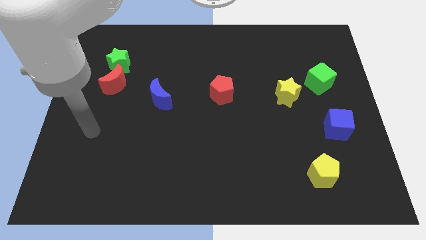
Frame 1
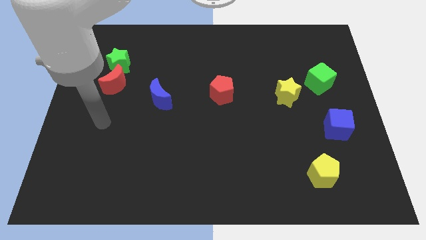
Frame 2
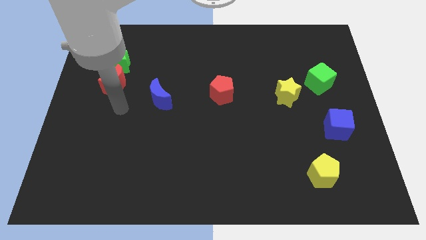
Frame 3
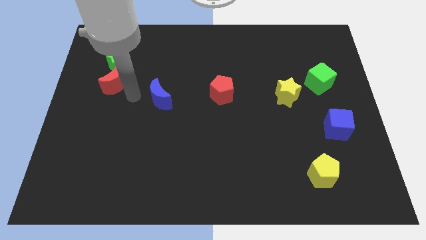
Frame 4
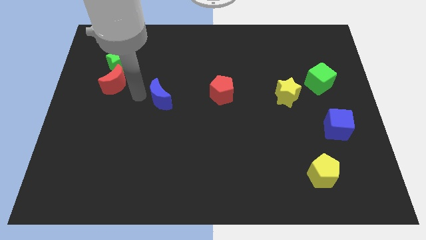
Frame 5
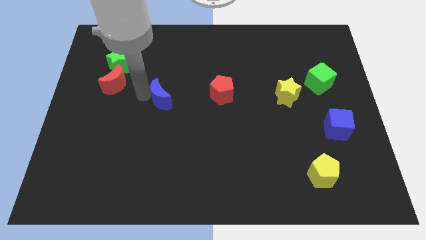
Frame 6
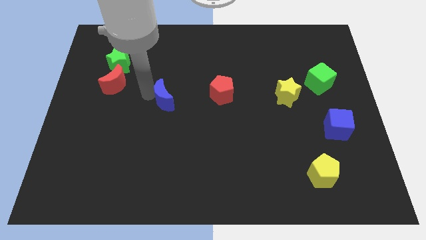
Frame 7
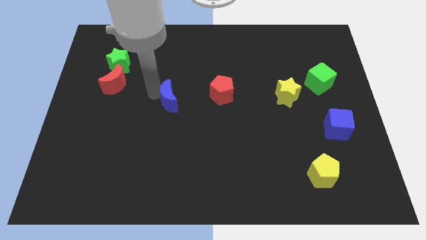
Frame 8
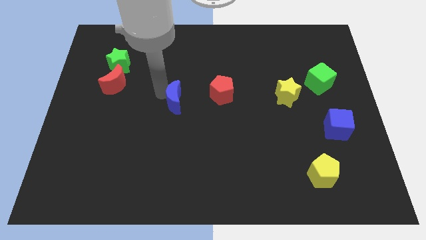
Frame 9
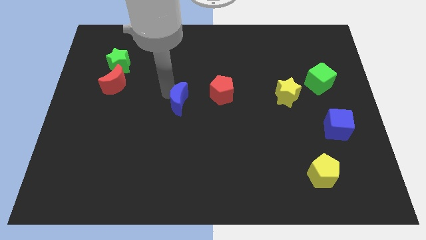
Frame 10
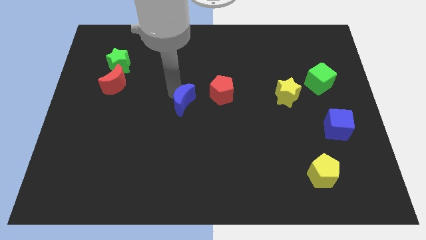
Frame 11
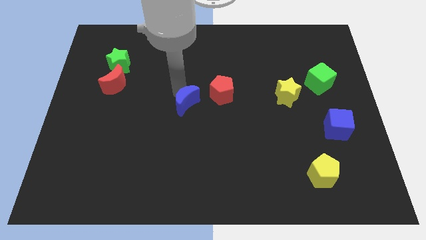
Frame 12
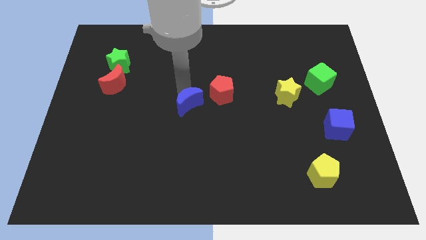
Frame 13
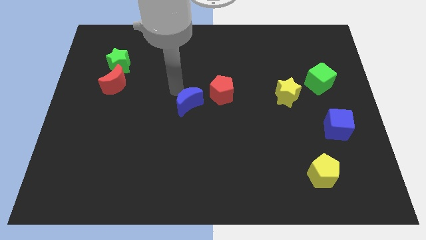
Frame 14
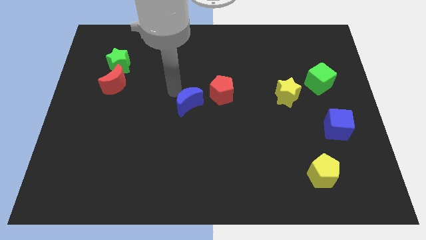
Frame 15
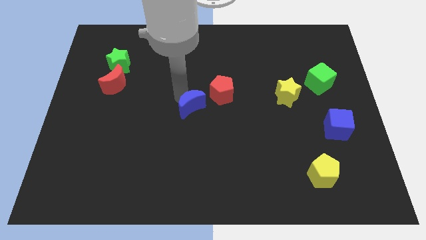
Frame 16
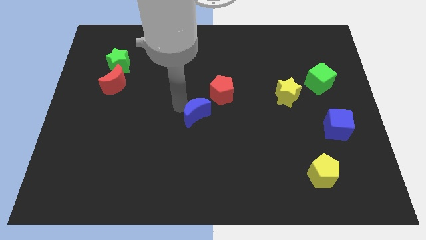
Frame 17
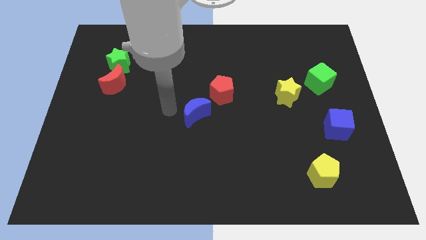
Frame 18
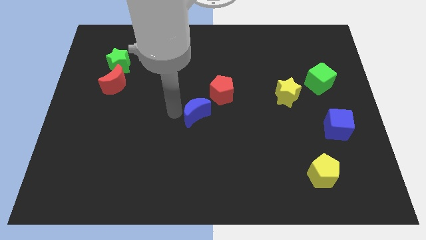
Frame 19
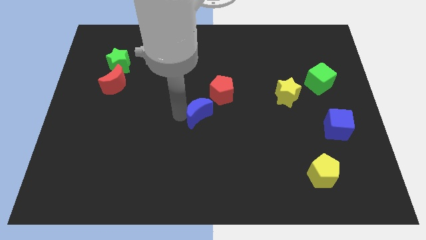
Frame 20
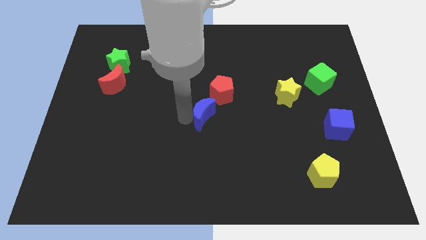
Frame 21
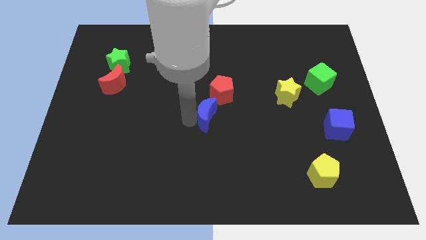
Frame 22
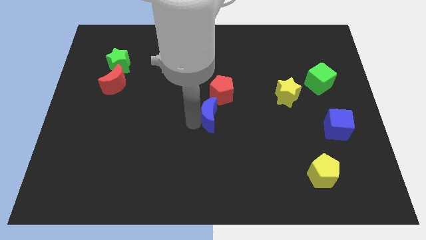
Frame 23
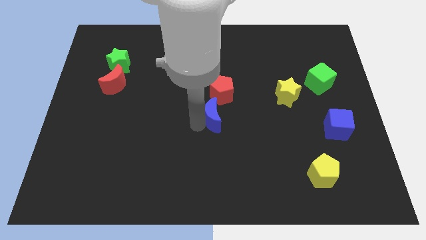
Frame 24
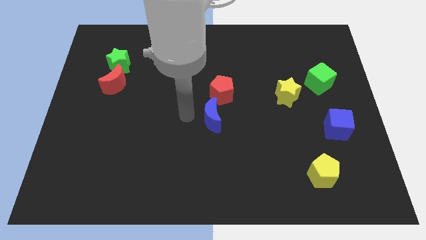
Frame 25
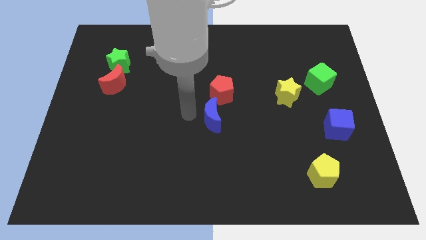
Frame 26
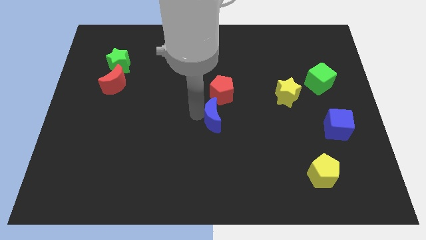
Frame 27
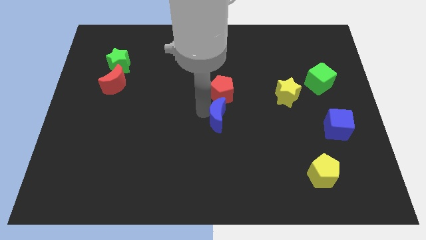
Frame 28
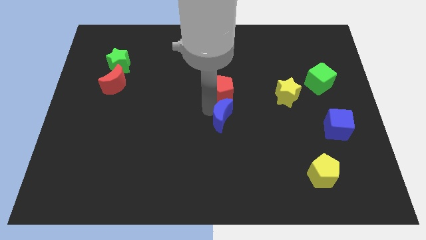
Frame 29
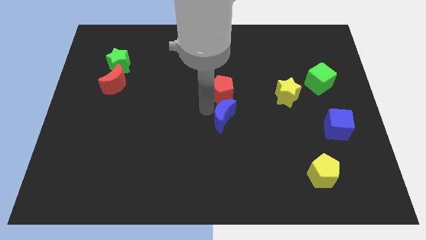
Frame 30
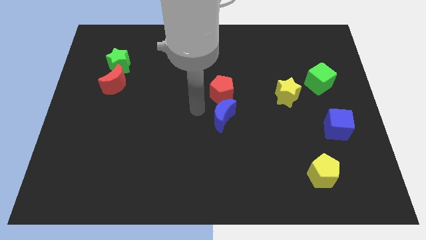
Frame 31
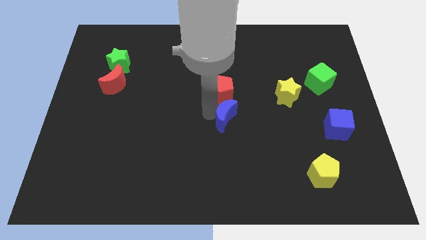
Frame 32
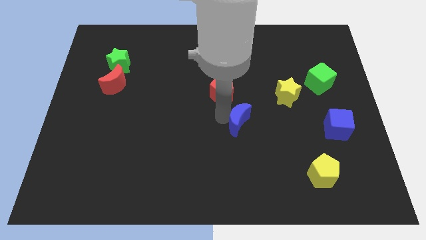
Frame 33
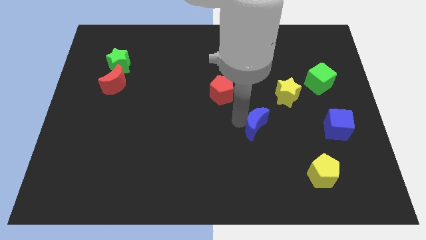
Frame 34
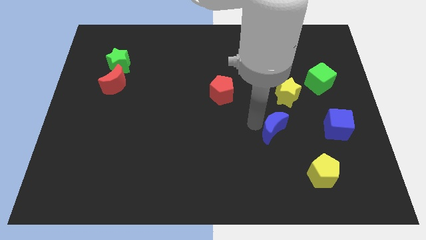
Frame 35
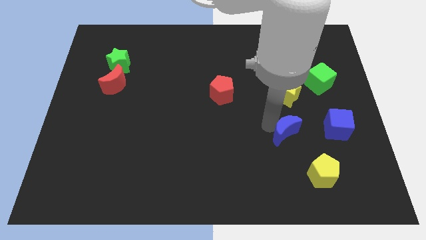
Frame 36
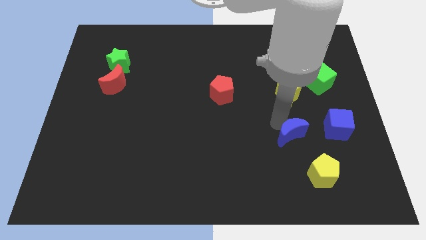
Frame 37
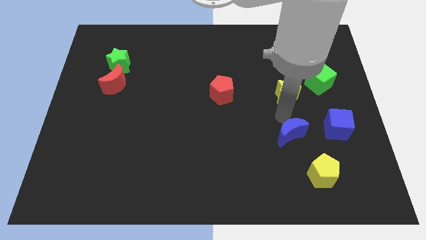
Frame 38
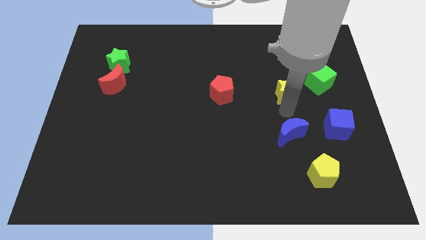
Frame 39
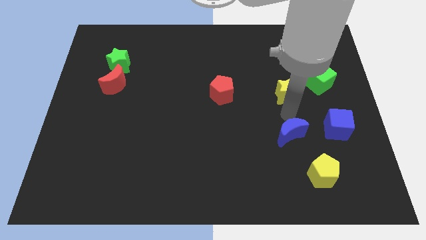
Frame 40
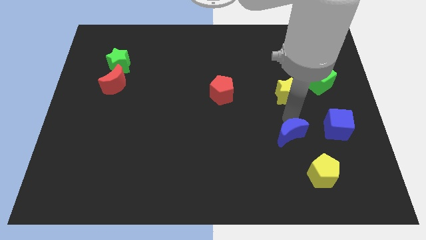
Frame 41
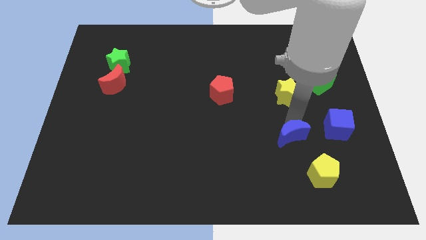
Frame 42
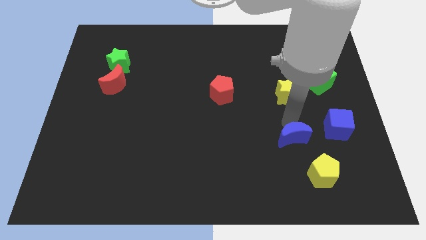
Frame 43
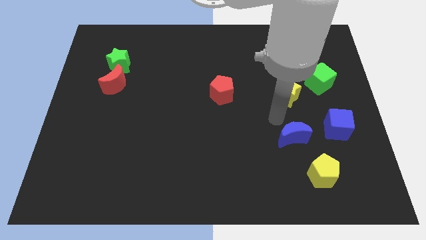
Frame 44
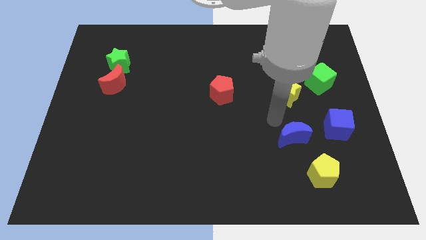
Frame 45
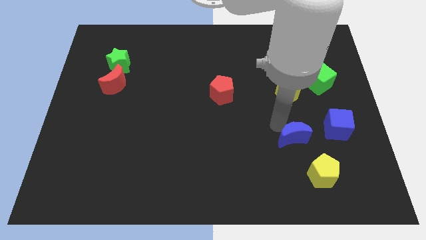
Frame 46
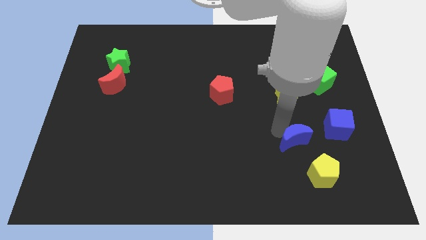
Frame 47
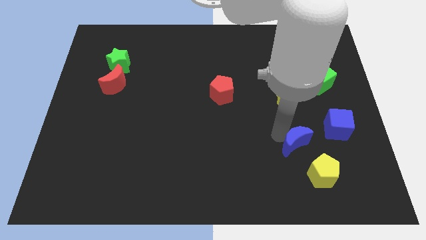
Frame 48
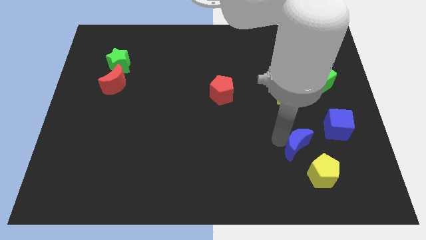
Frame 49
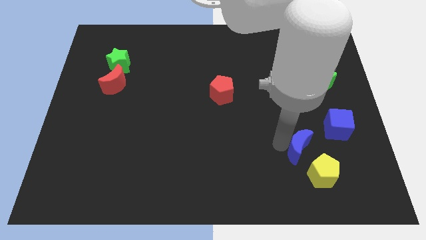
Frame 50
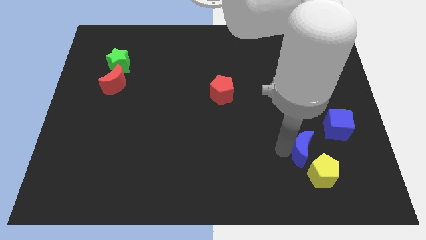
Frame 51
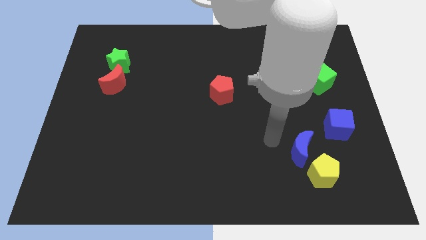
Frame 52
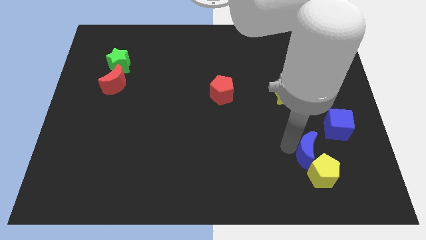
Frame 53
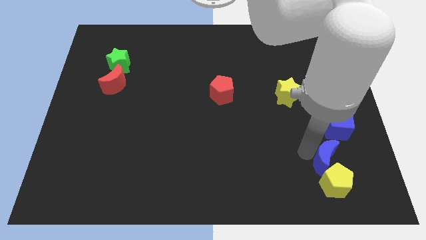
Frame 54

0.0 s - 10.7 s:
slide the blue moon below the blue cube

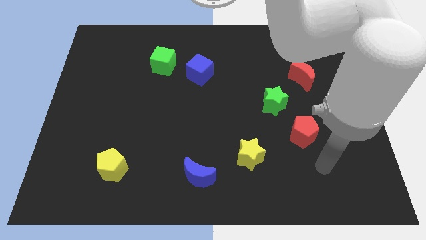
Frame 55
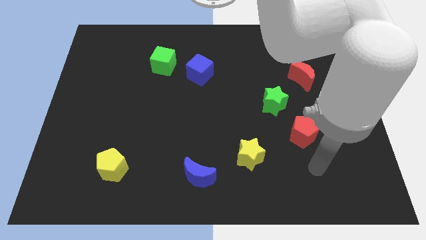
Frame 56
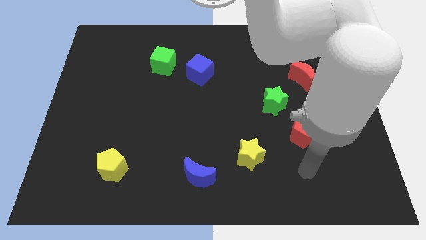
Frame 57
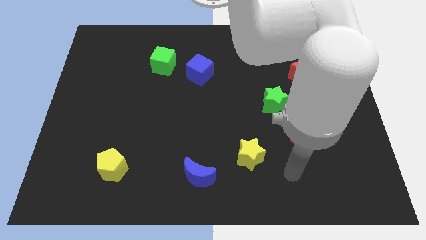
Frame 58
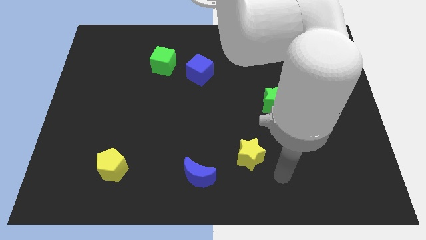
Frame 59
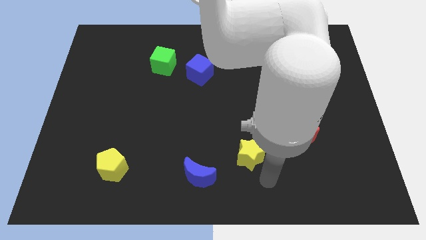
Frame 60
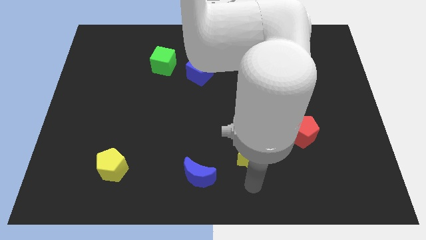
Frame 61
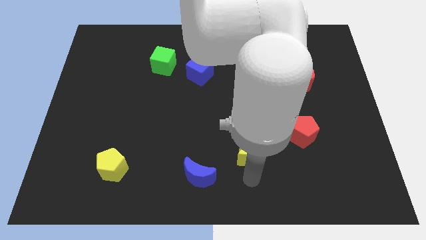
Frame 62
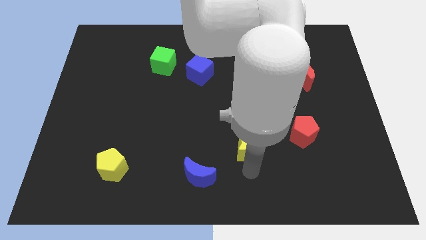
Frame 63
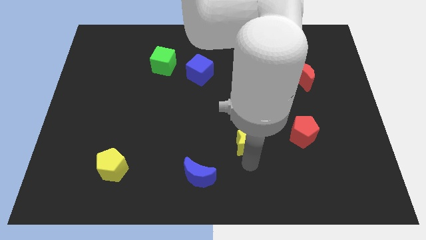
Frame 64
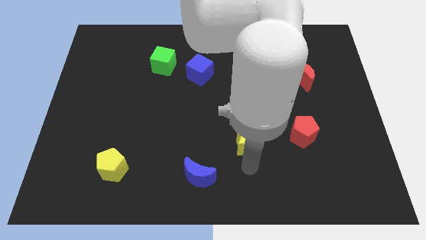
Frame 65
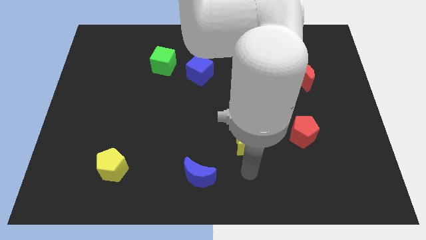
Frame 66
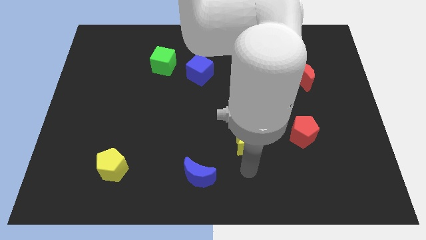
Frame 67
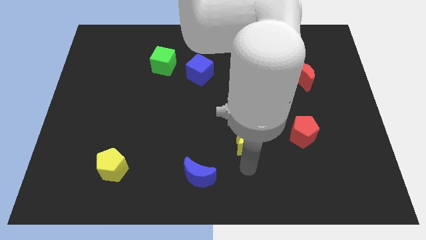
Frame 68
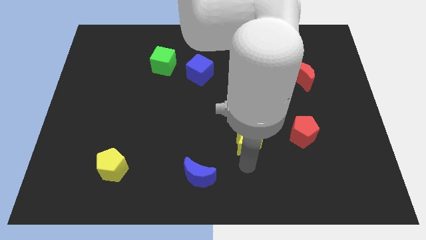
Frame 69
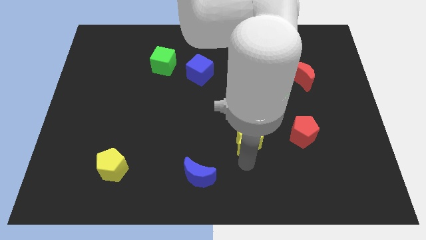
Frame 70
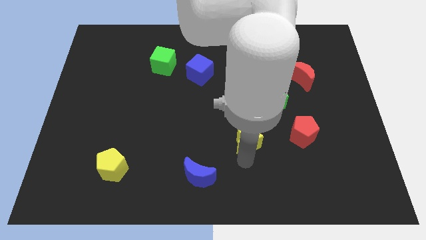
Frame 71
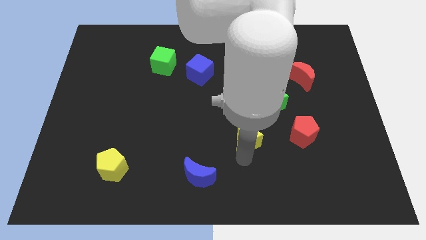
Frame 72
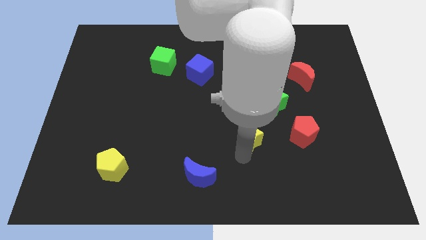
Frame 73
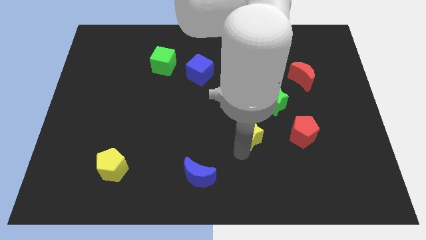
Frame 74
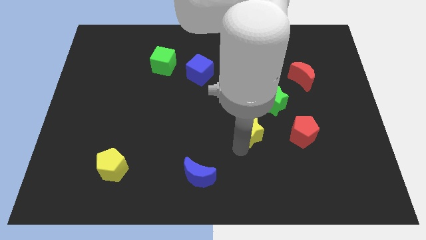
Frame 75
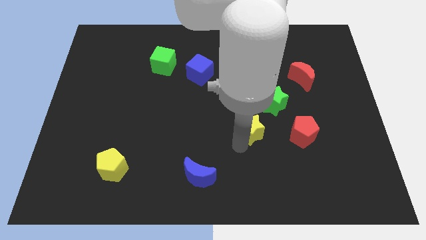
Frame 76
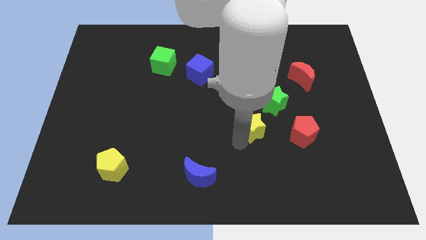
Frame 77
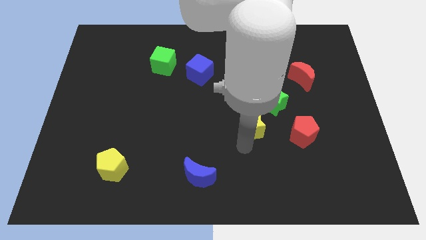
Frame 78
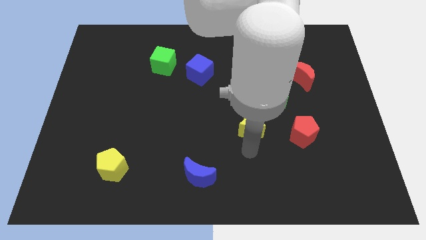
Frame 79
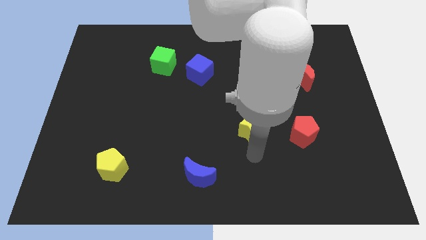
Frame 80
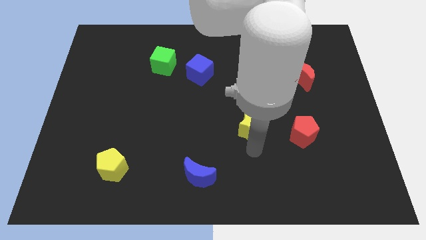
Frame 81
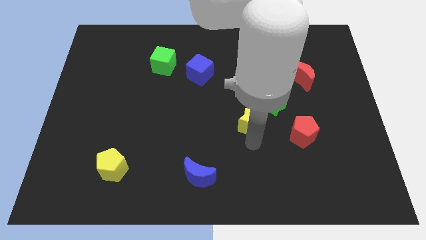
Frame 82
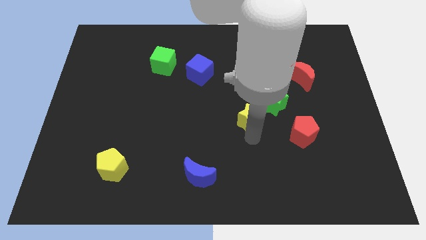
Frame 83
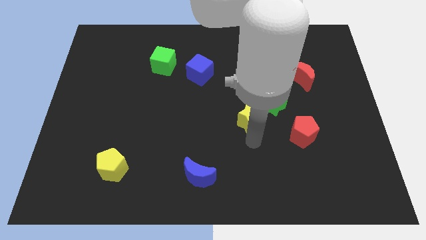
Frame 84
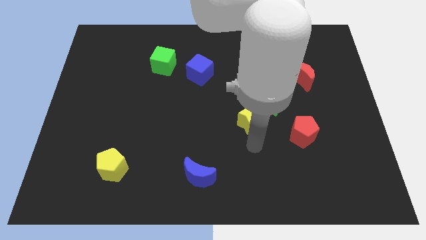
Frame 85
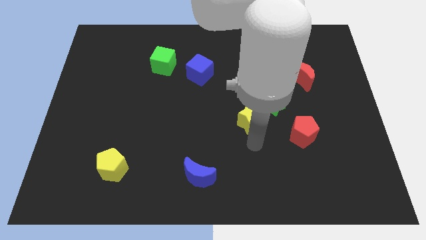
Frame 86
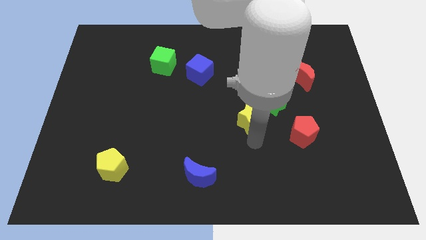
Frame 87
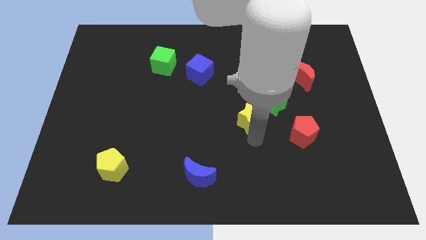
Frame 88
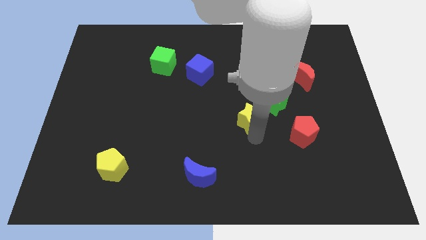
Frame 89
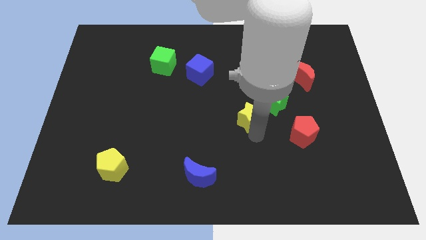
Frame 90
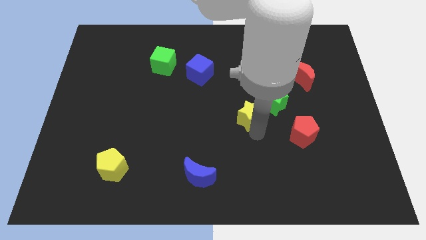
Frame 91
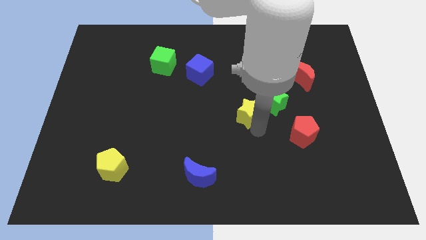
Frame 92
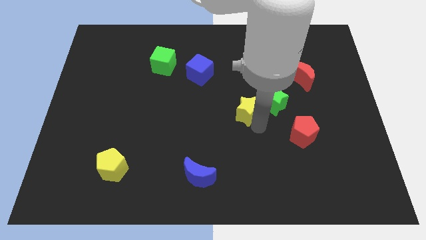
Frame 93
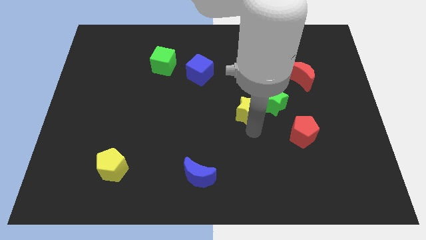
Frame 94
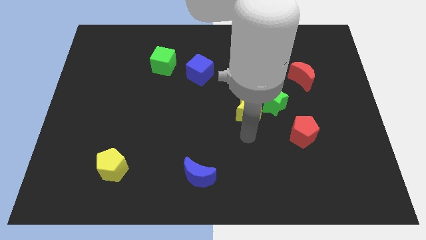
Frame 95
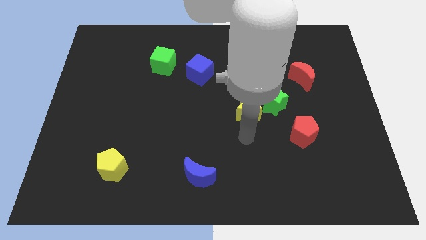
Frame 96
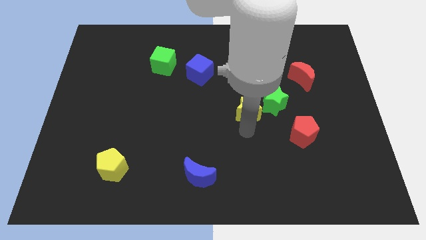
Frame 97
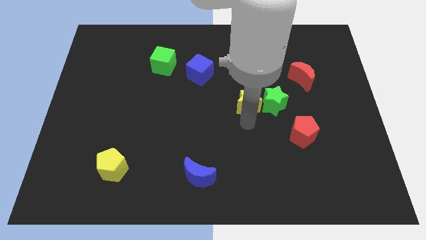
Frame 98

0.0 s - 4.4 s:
move the yellow star to the top left side of the green star
